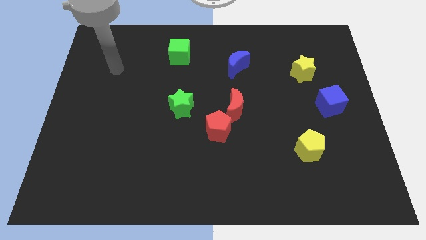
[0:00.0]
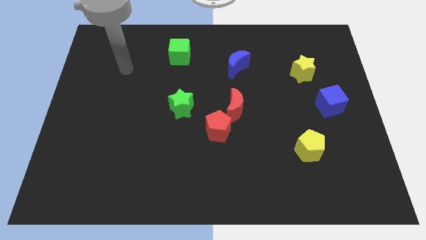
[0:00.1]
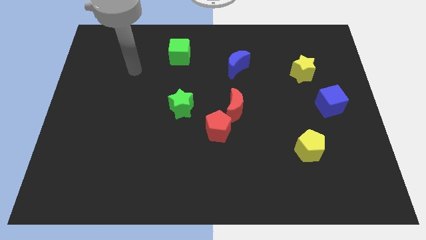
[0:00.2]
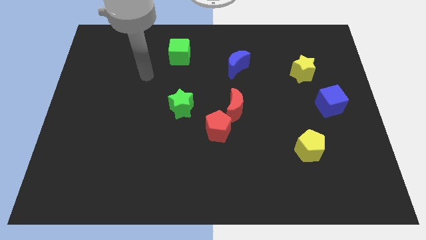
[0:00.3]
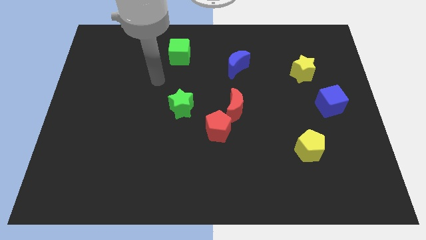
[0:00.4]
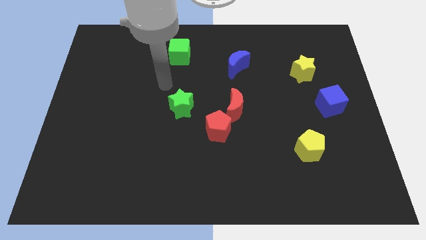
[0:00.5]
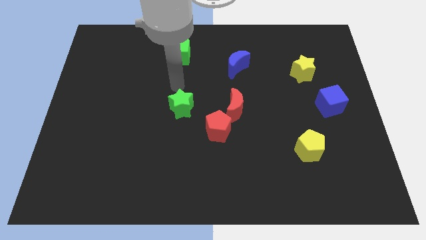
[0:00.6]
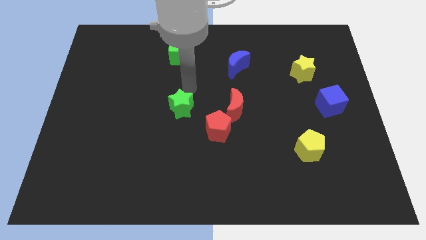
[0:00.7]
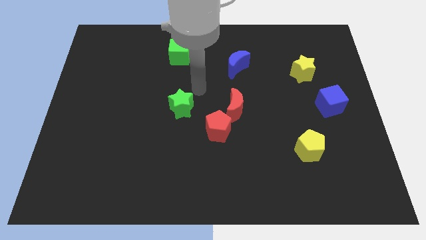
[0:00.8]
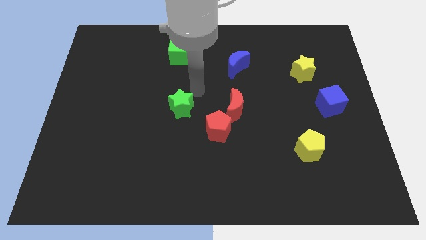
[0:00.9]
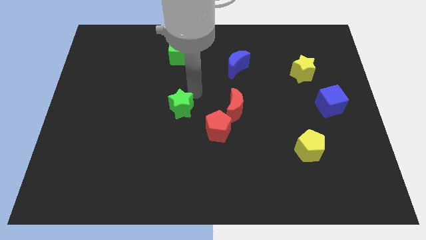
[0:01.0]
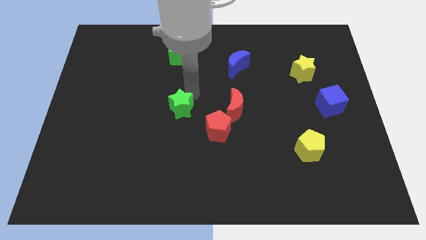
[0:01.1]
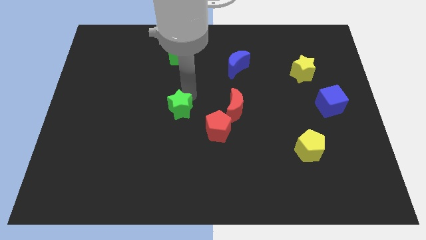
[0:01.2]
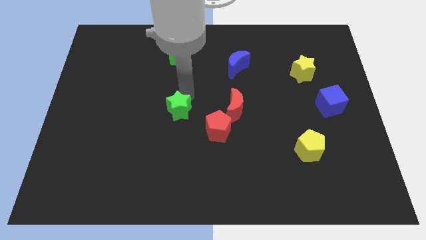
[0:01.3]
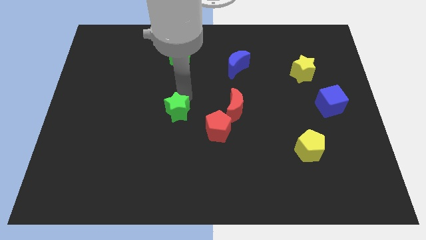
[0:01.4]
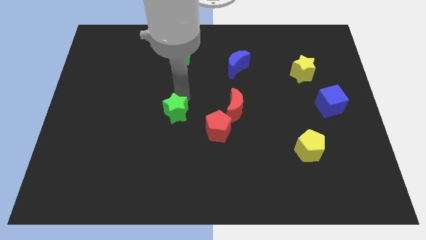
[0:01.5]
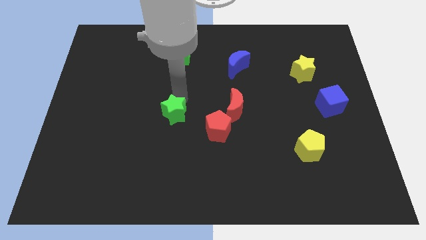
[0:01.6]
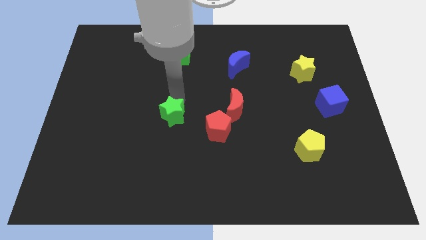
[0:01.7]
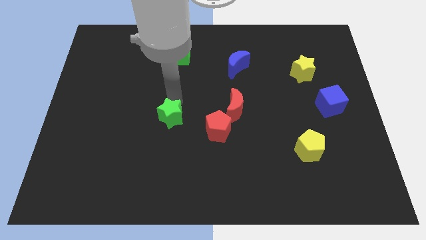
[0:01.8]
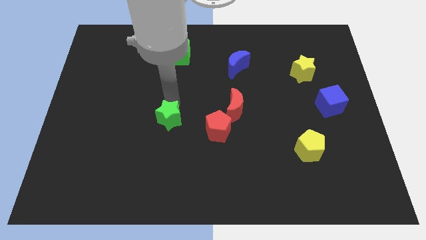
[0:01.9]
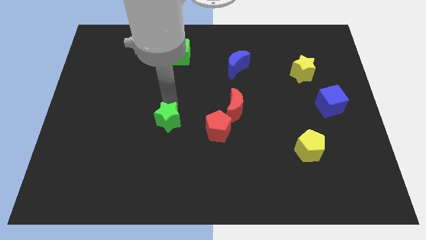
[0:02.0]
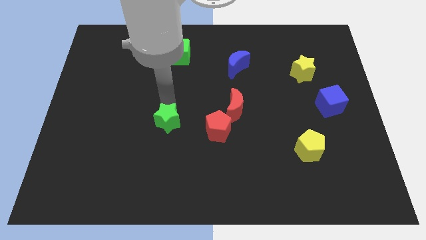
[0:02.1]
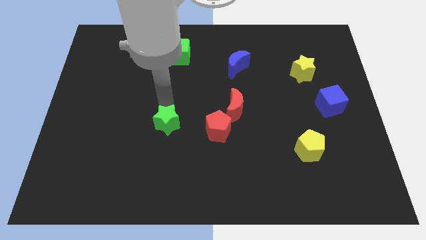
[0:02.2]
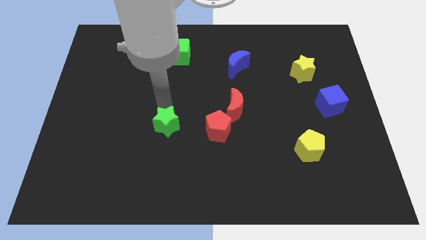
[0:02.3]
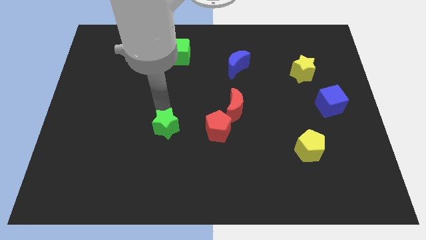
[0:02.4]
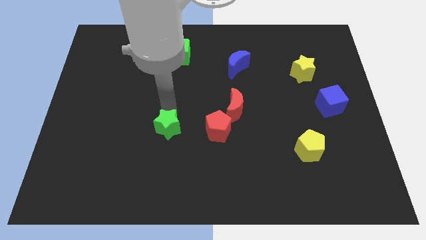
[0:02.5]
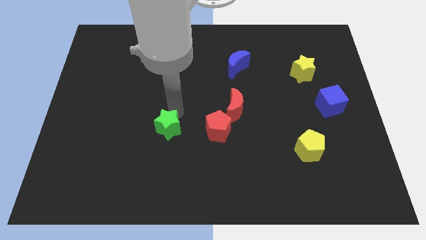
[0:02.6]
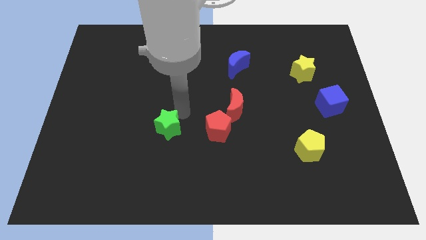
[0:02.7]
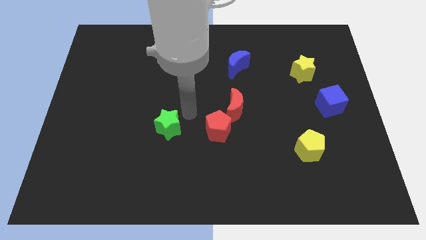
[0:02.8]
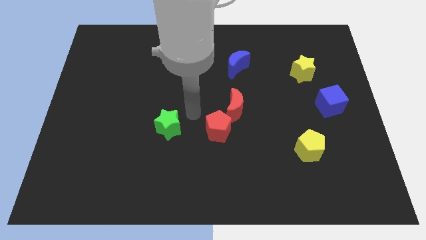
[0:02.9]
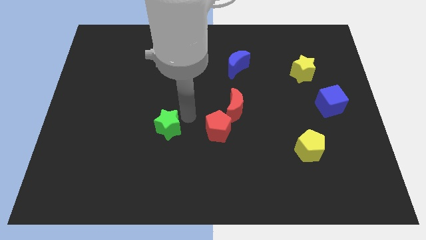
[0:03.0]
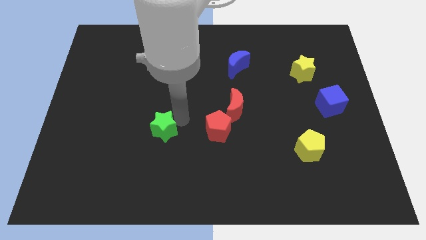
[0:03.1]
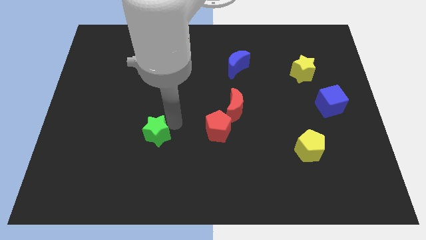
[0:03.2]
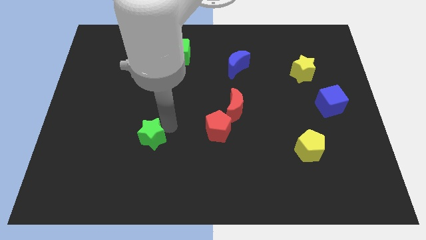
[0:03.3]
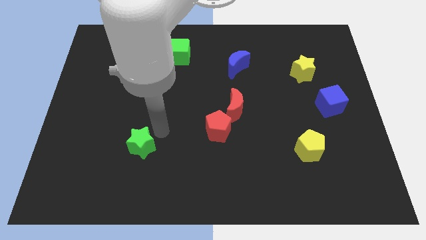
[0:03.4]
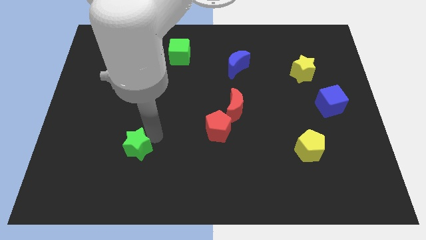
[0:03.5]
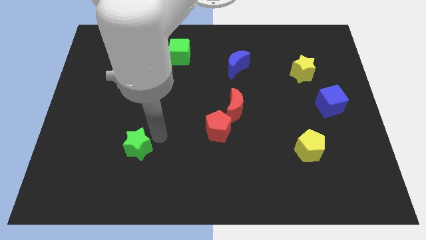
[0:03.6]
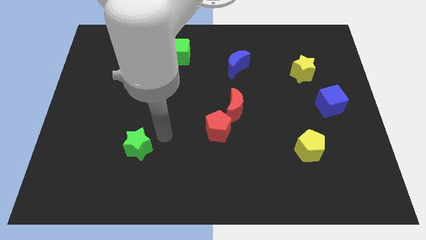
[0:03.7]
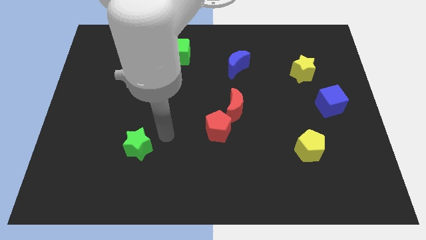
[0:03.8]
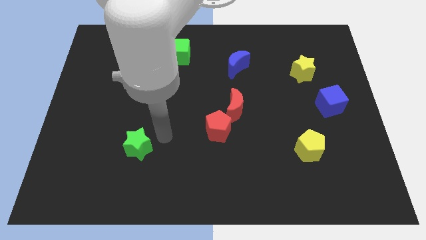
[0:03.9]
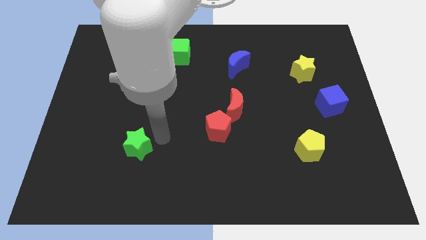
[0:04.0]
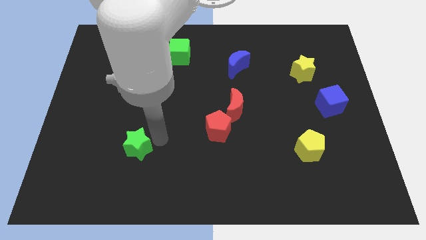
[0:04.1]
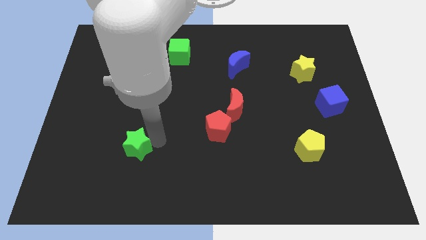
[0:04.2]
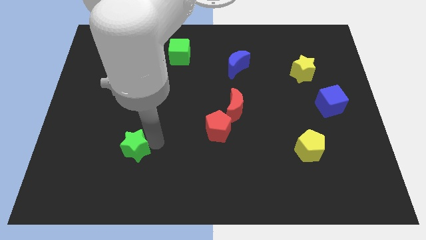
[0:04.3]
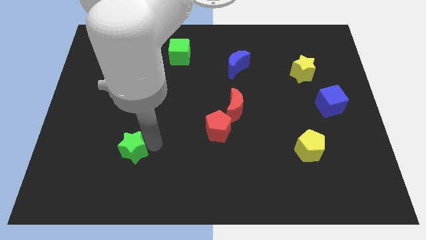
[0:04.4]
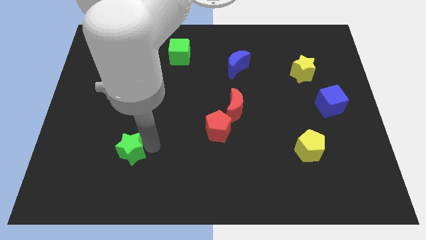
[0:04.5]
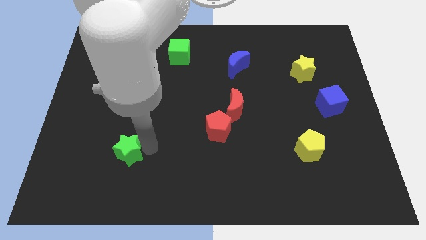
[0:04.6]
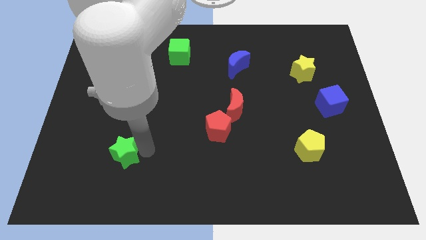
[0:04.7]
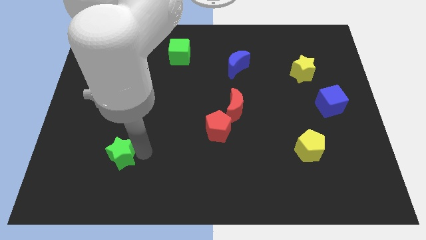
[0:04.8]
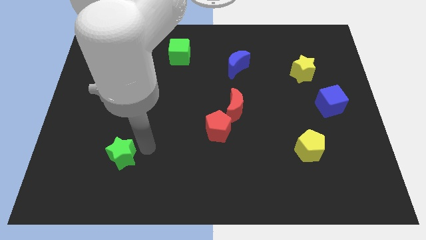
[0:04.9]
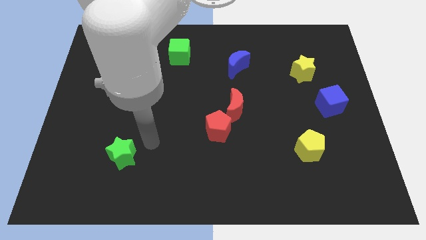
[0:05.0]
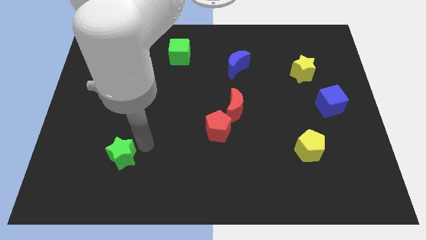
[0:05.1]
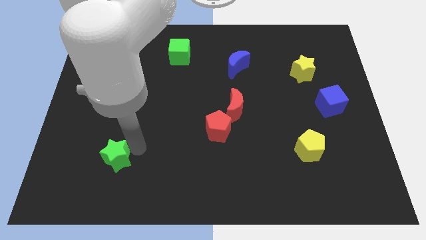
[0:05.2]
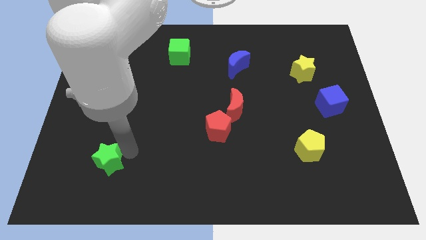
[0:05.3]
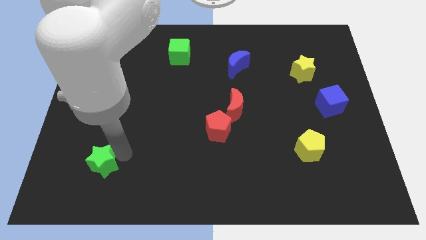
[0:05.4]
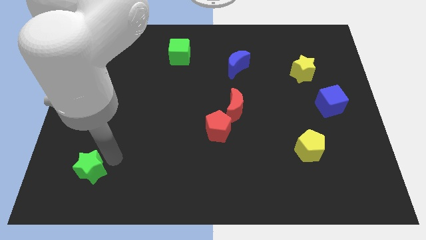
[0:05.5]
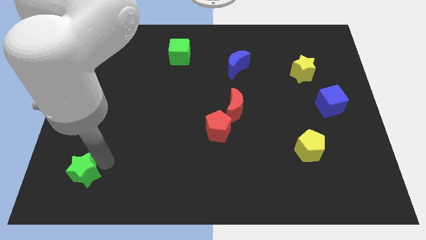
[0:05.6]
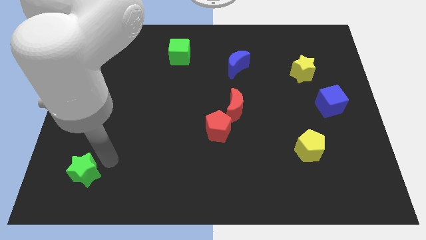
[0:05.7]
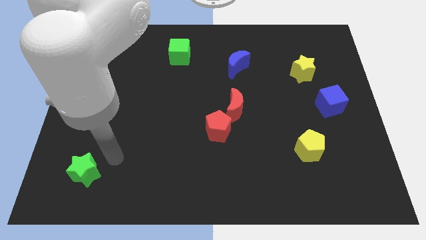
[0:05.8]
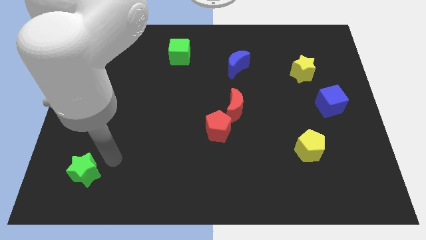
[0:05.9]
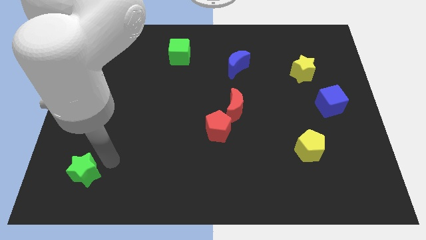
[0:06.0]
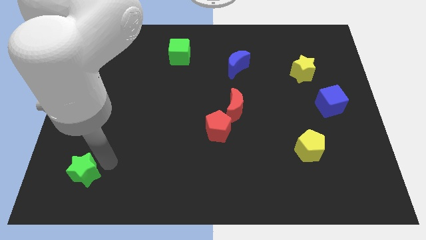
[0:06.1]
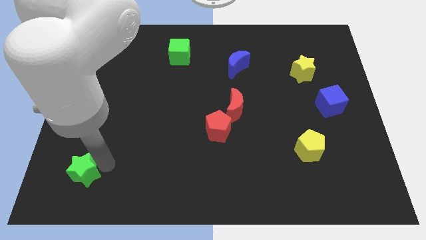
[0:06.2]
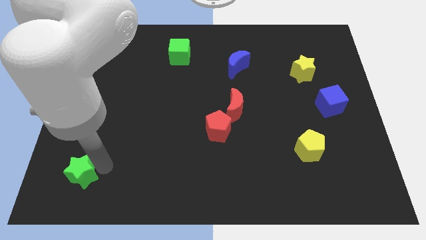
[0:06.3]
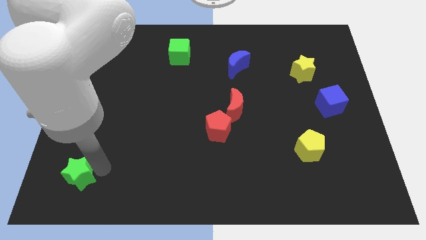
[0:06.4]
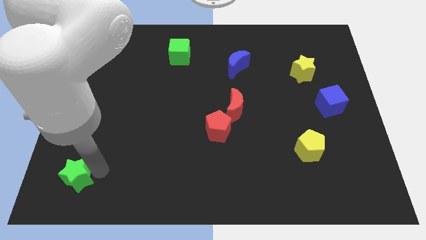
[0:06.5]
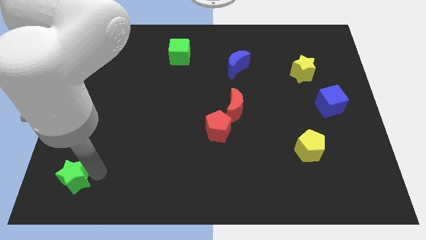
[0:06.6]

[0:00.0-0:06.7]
slide the green star to the bottom left of the board
